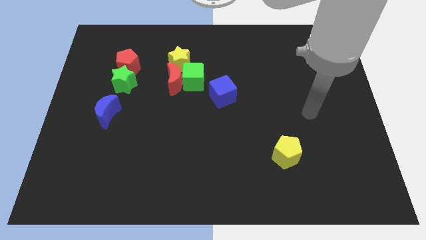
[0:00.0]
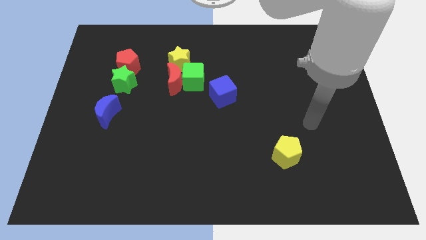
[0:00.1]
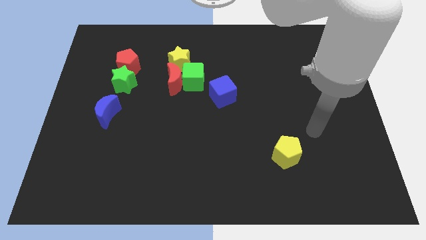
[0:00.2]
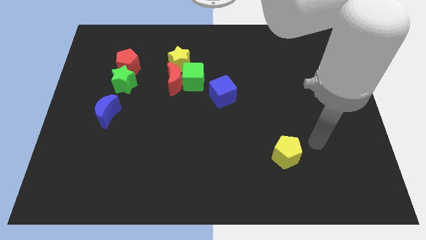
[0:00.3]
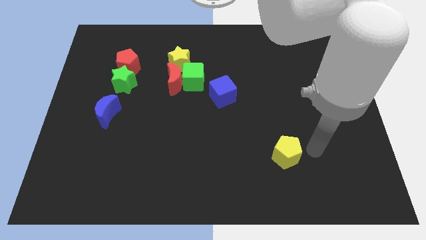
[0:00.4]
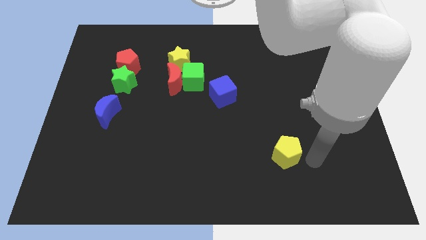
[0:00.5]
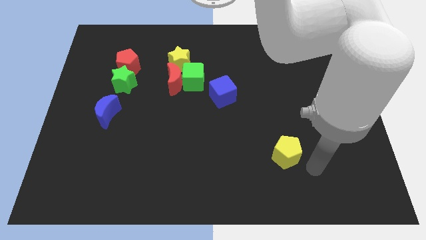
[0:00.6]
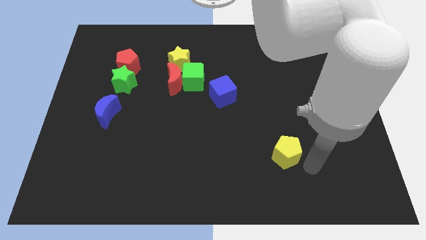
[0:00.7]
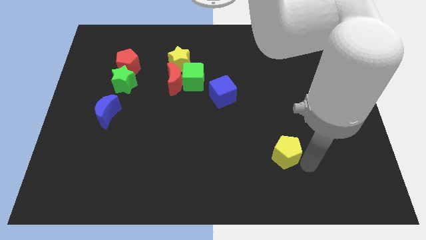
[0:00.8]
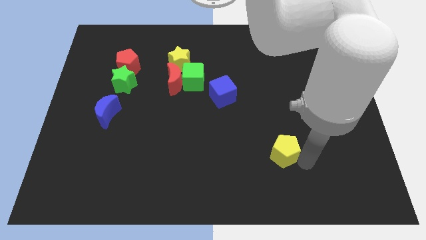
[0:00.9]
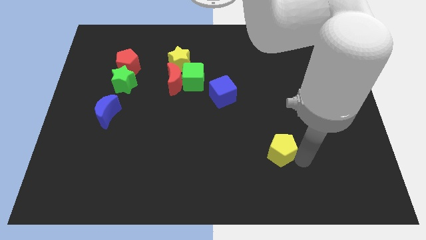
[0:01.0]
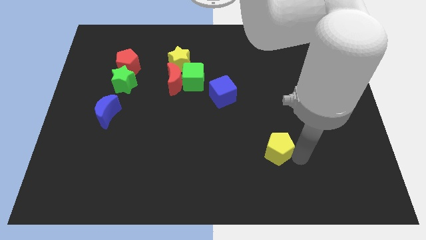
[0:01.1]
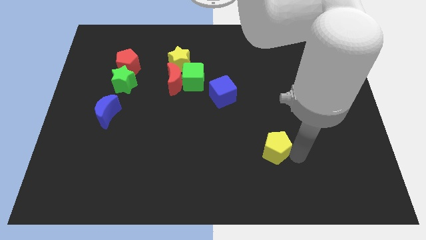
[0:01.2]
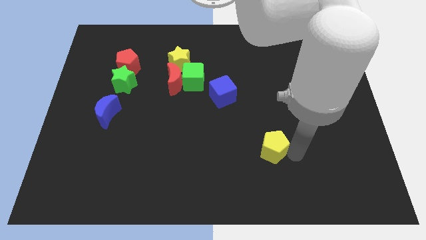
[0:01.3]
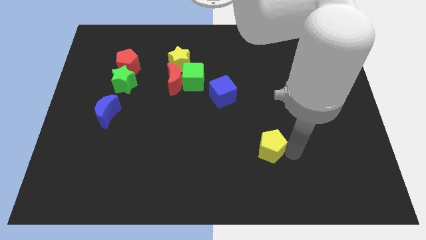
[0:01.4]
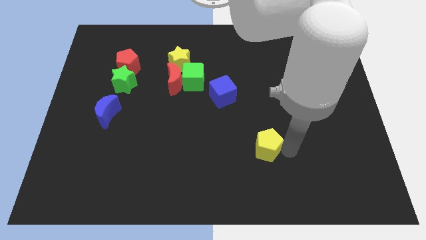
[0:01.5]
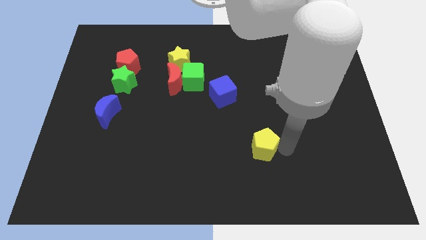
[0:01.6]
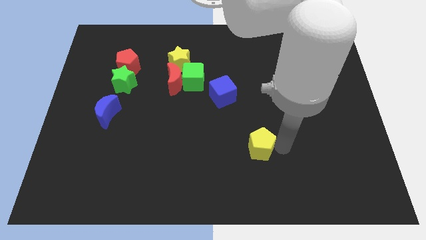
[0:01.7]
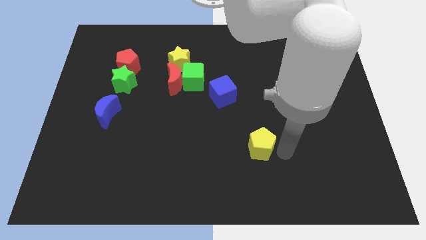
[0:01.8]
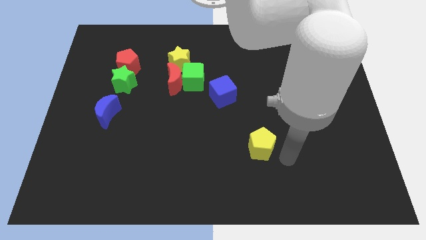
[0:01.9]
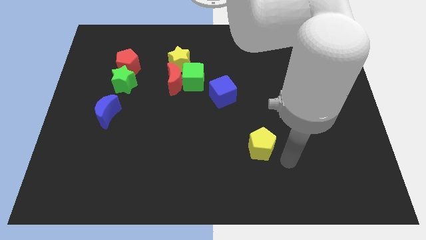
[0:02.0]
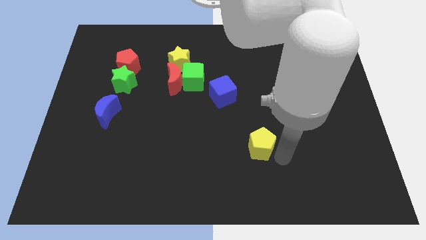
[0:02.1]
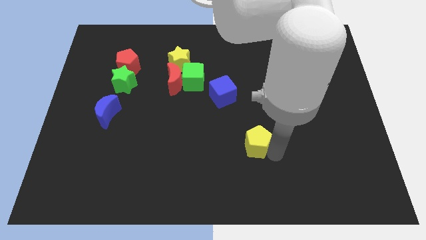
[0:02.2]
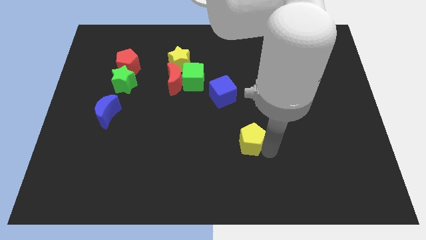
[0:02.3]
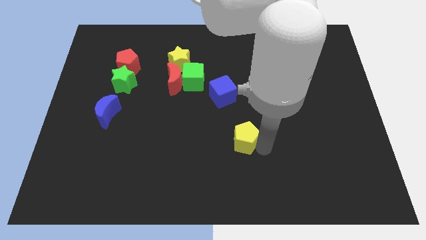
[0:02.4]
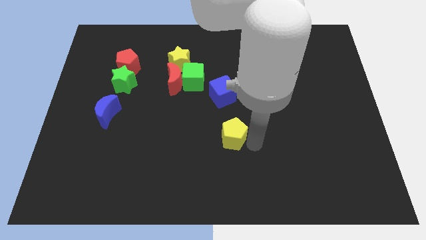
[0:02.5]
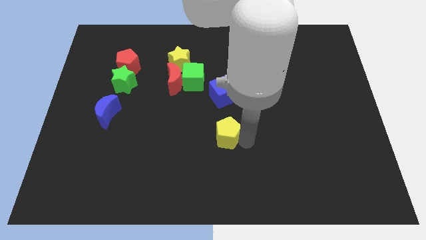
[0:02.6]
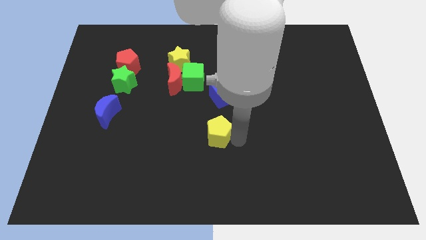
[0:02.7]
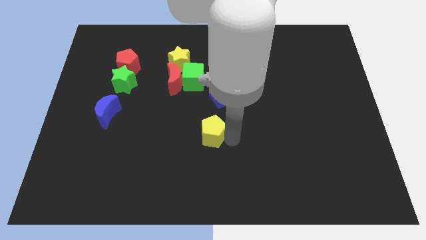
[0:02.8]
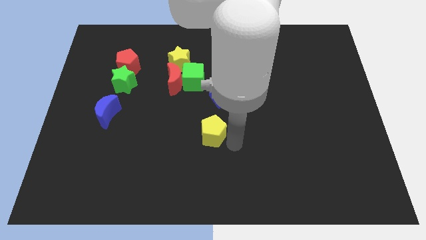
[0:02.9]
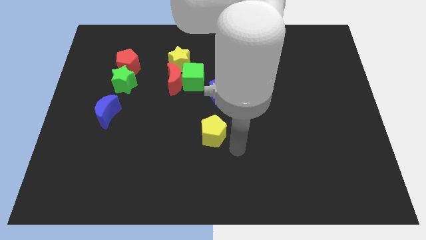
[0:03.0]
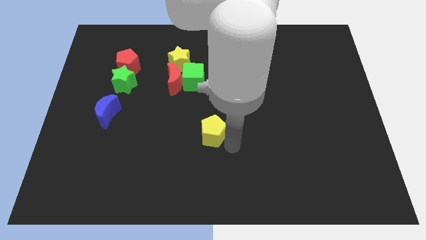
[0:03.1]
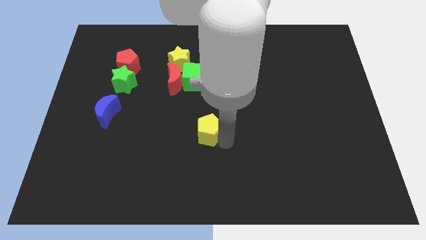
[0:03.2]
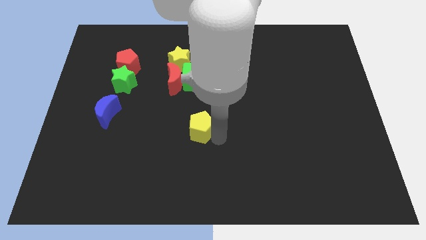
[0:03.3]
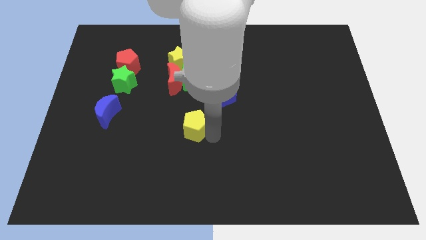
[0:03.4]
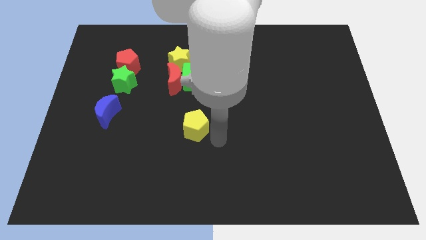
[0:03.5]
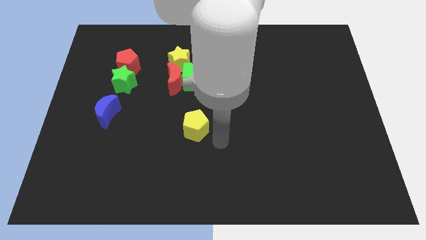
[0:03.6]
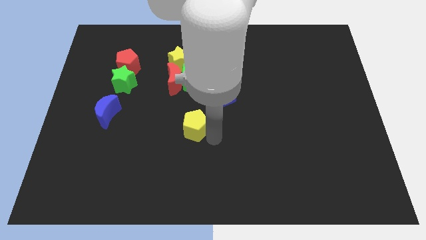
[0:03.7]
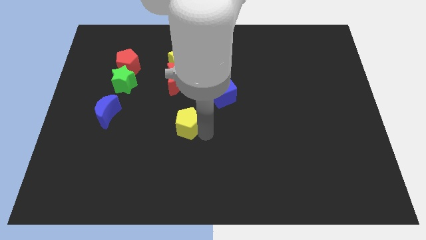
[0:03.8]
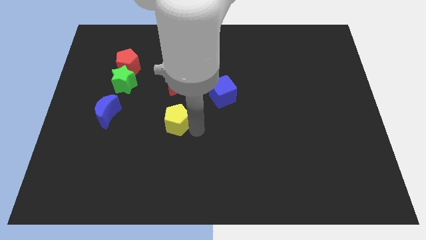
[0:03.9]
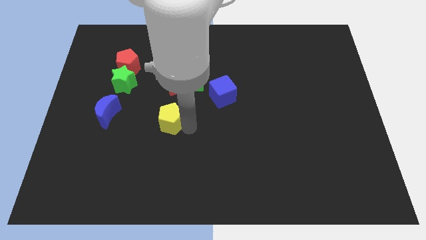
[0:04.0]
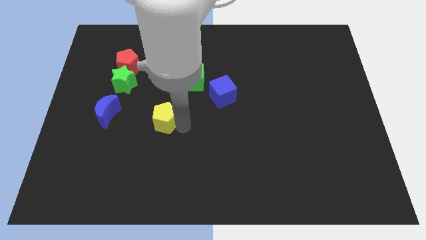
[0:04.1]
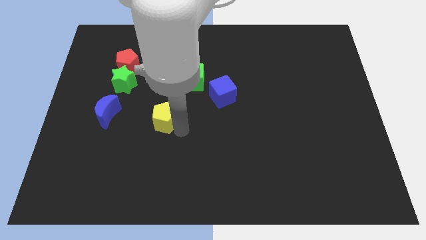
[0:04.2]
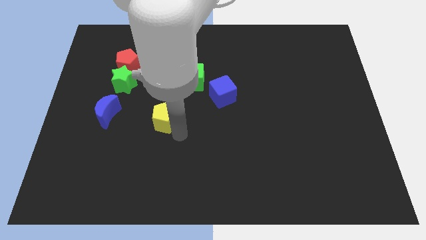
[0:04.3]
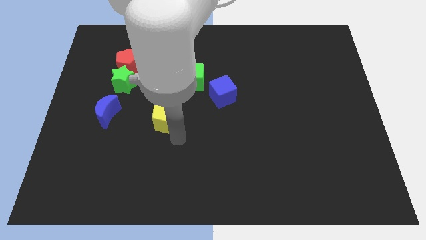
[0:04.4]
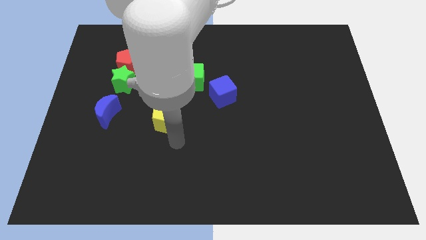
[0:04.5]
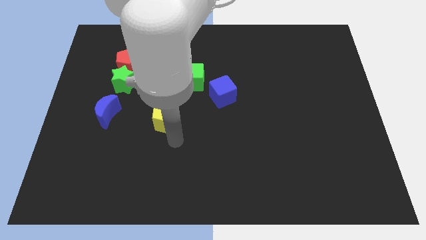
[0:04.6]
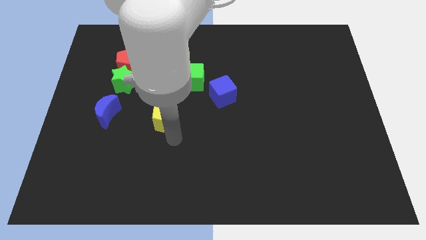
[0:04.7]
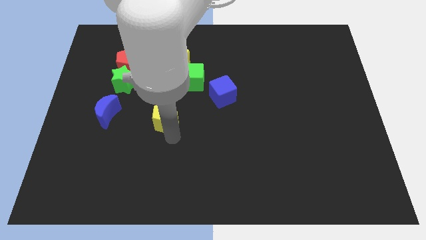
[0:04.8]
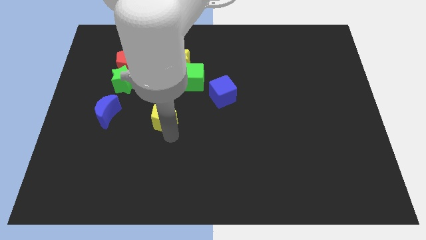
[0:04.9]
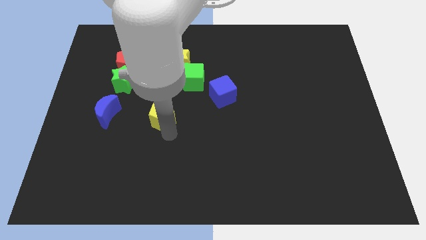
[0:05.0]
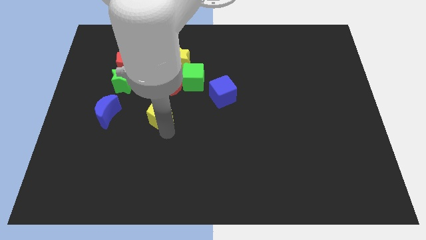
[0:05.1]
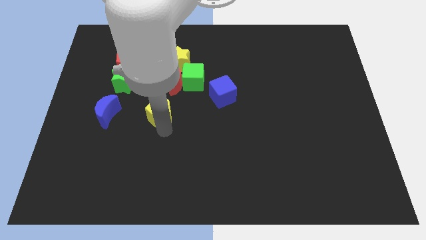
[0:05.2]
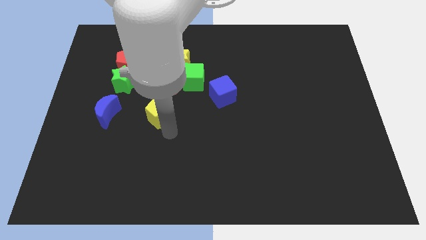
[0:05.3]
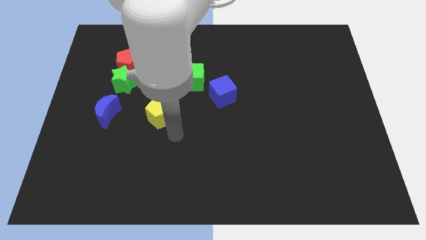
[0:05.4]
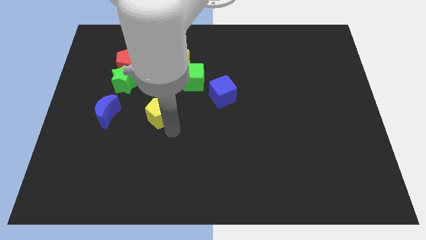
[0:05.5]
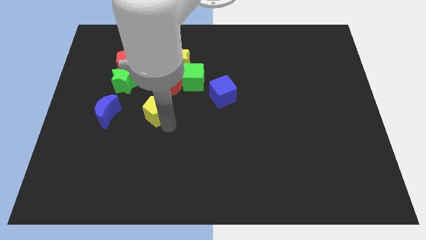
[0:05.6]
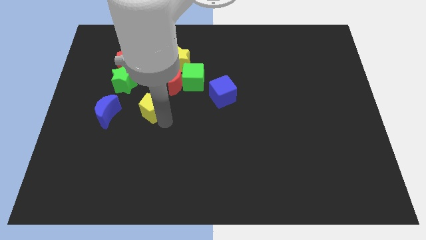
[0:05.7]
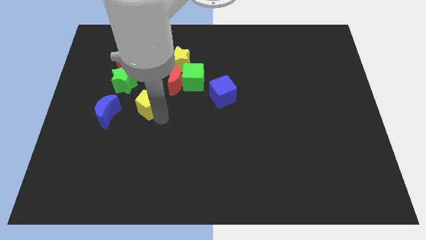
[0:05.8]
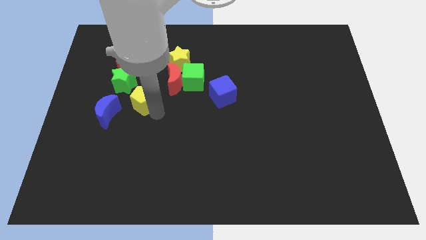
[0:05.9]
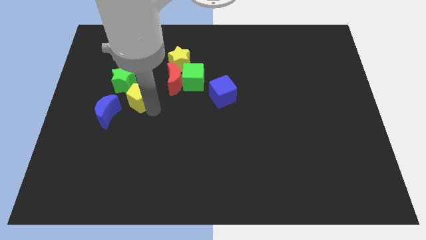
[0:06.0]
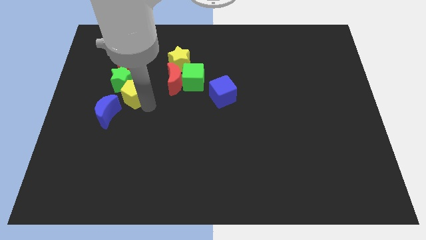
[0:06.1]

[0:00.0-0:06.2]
put the yellow pentagon next to the green star
